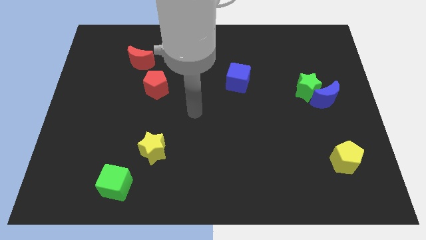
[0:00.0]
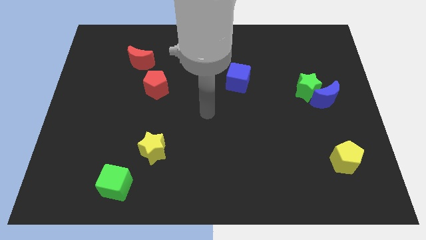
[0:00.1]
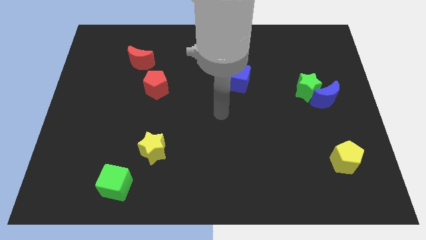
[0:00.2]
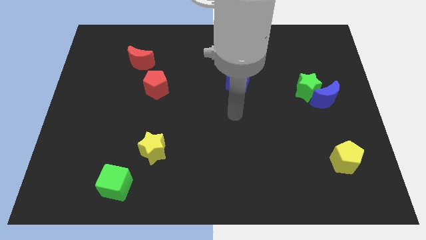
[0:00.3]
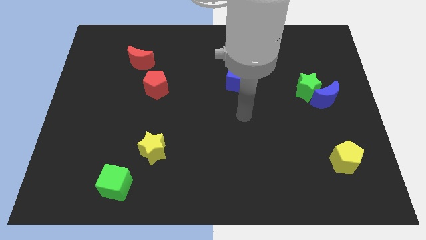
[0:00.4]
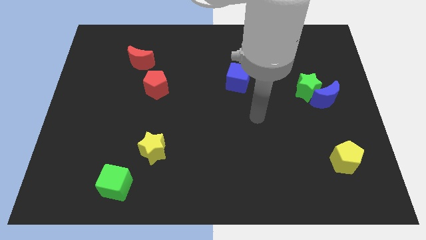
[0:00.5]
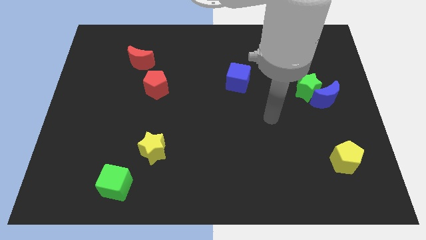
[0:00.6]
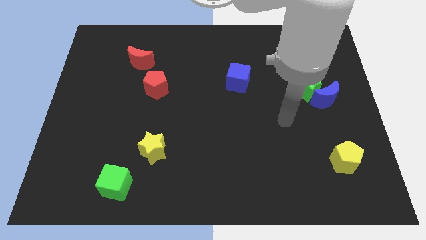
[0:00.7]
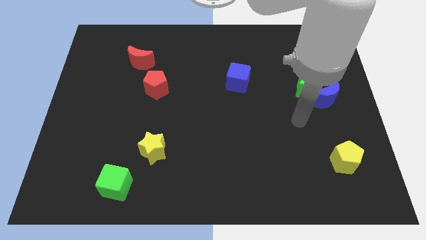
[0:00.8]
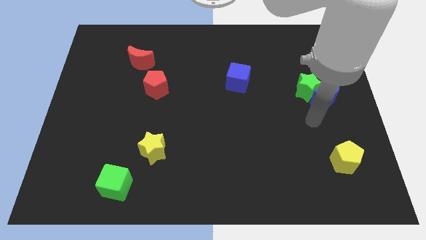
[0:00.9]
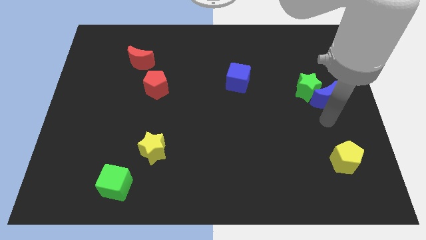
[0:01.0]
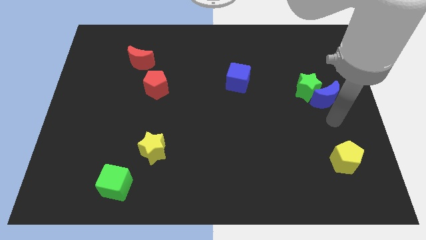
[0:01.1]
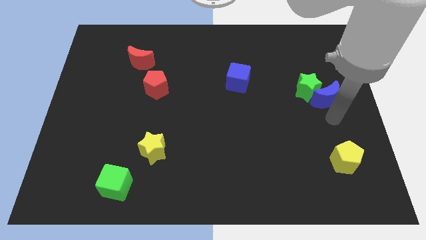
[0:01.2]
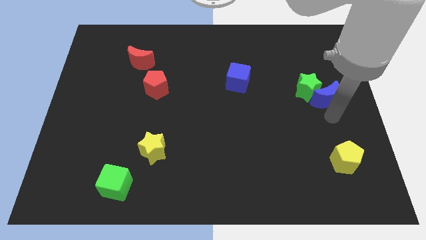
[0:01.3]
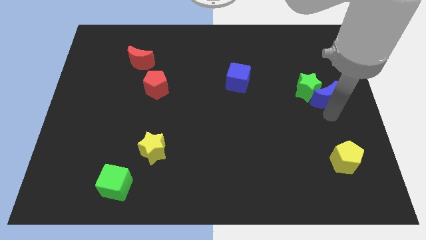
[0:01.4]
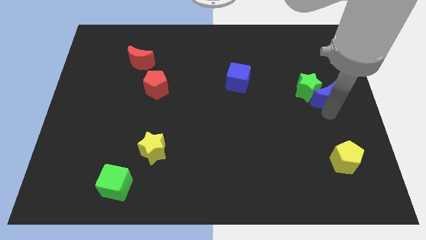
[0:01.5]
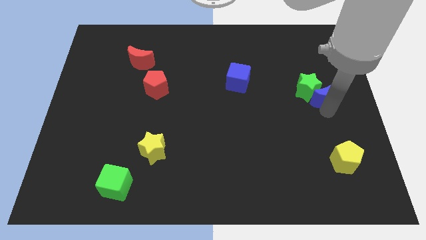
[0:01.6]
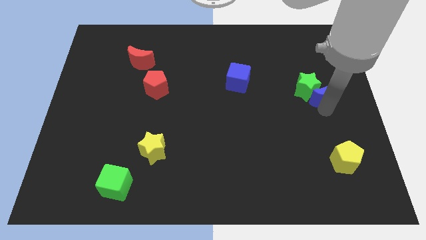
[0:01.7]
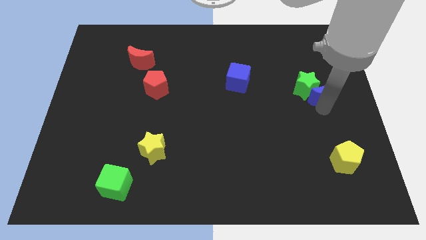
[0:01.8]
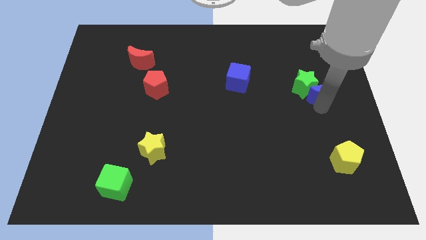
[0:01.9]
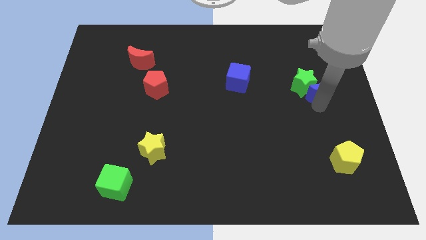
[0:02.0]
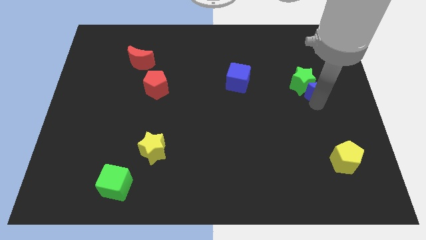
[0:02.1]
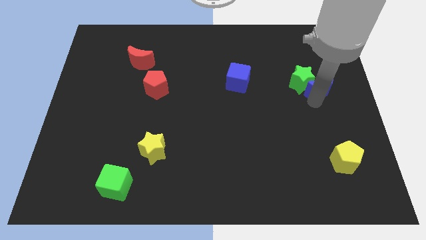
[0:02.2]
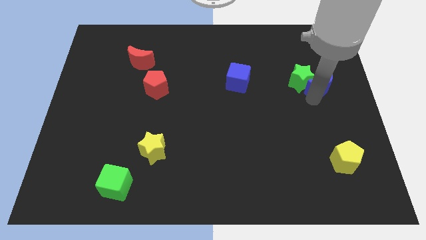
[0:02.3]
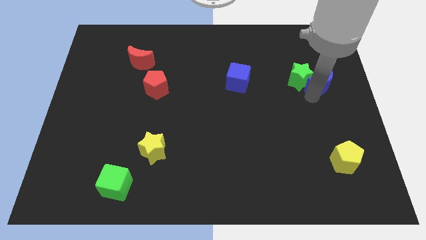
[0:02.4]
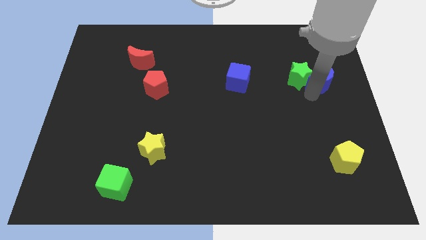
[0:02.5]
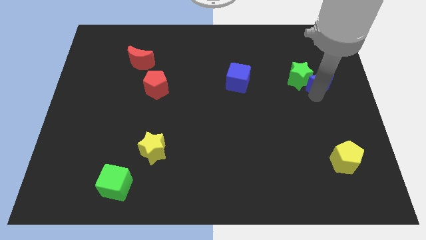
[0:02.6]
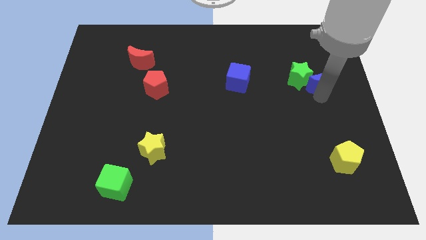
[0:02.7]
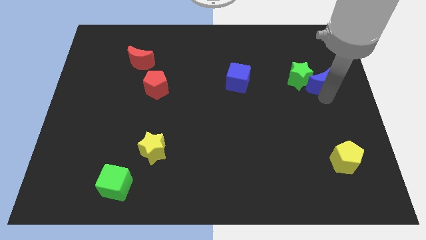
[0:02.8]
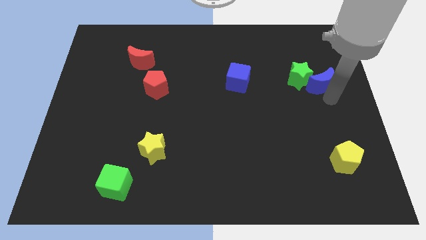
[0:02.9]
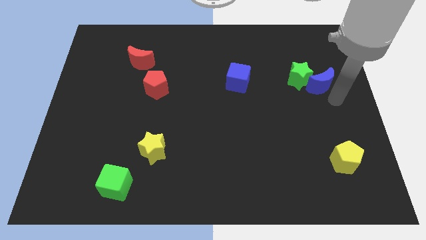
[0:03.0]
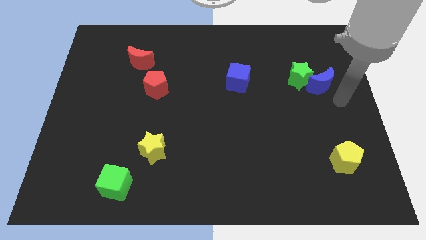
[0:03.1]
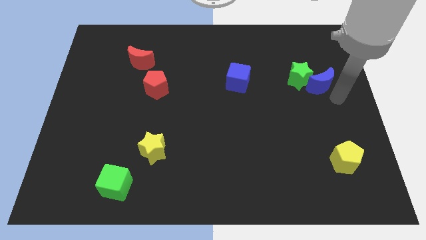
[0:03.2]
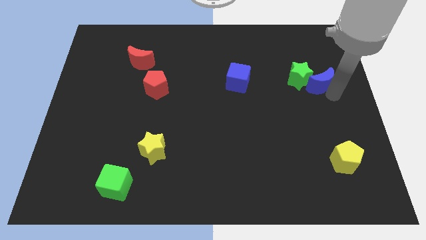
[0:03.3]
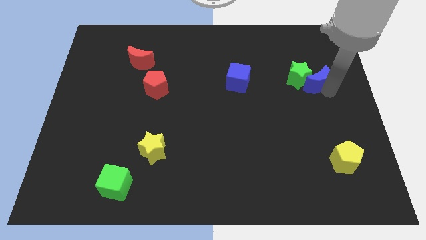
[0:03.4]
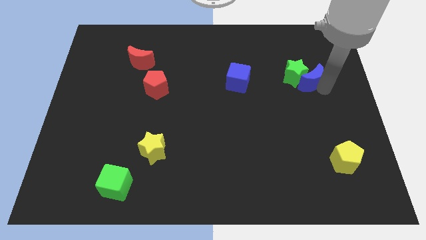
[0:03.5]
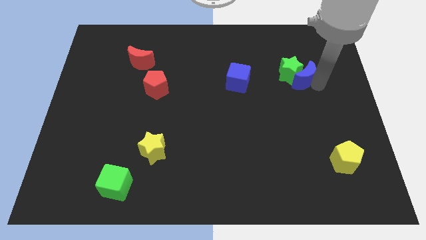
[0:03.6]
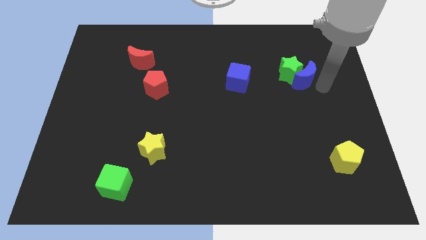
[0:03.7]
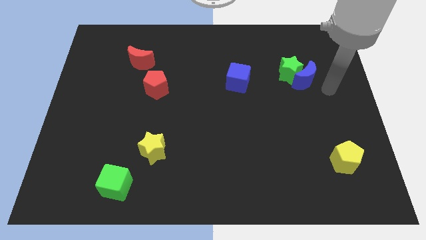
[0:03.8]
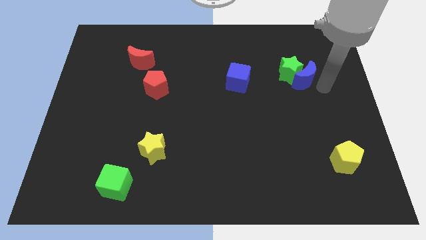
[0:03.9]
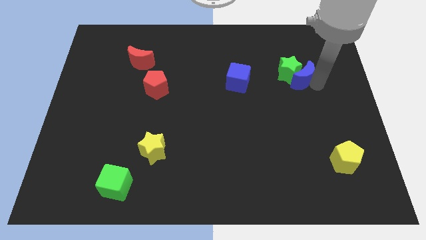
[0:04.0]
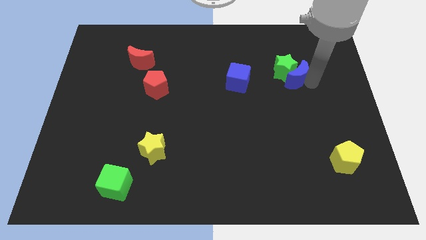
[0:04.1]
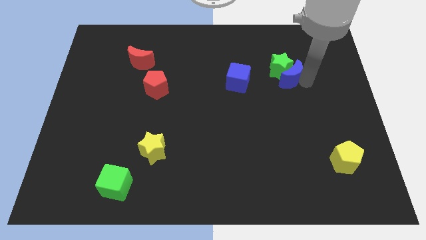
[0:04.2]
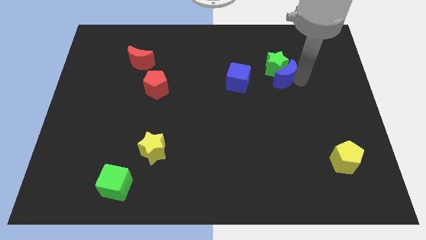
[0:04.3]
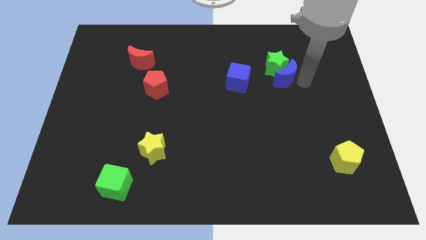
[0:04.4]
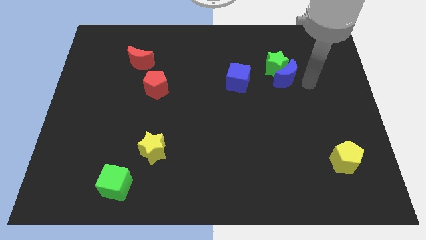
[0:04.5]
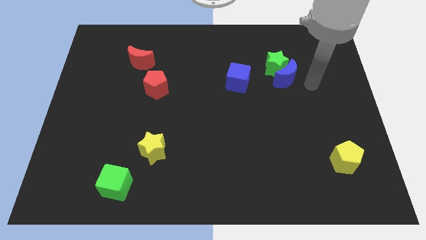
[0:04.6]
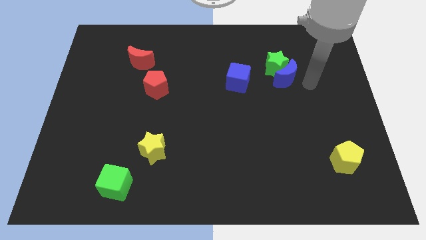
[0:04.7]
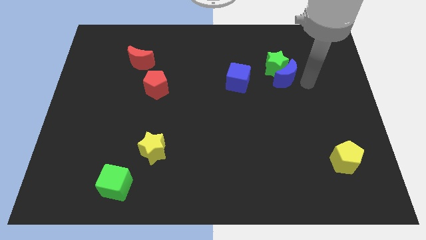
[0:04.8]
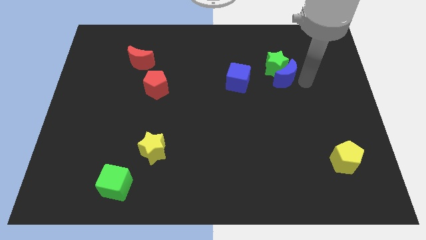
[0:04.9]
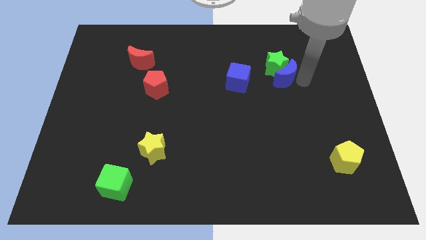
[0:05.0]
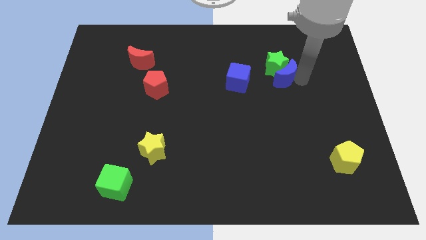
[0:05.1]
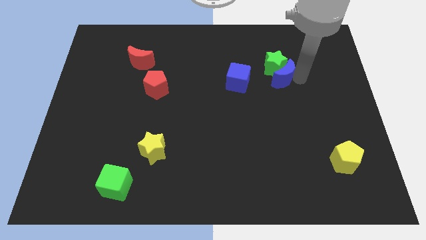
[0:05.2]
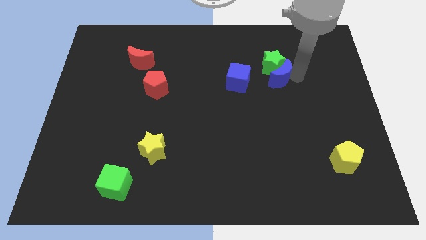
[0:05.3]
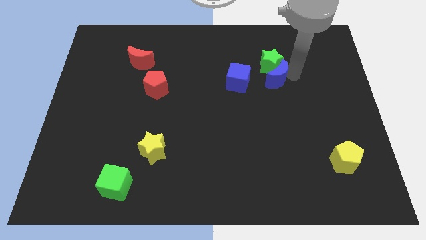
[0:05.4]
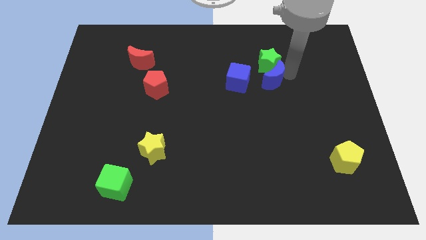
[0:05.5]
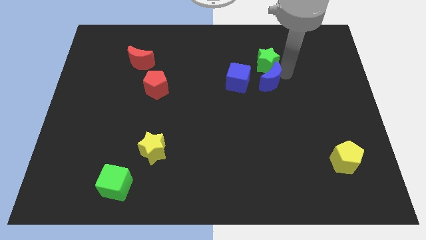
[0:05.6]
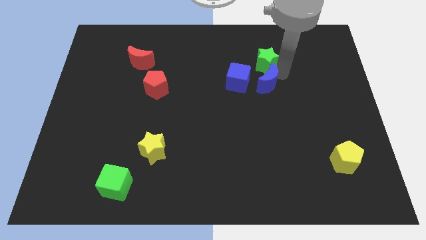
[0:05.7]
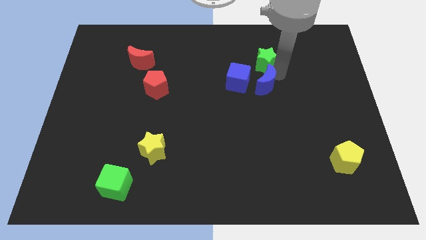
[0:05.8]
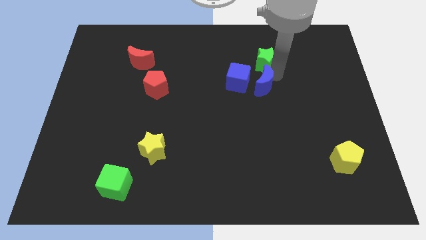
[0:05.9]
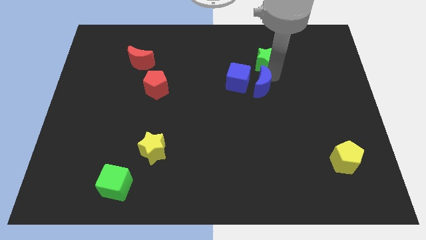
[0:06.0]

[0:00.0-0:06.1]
push the blue moon close to the blue cube

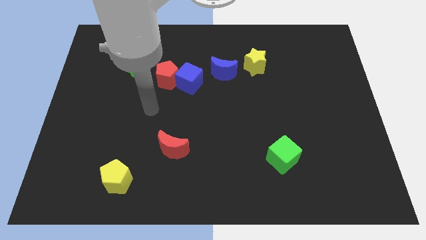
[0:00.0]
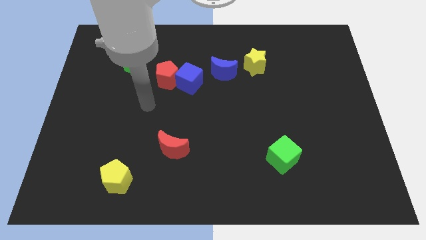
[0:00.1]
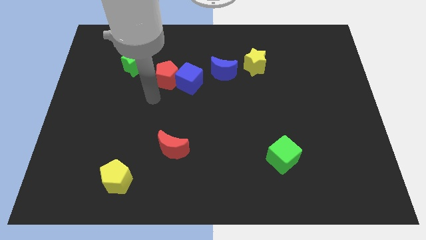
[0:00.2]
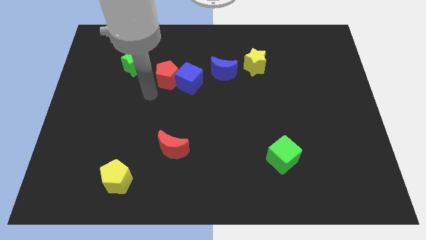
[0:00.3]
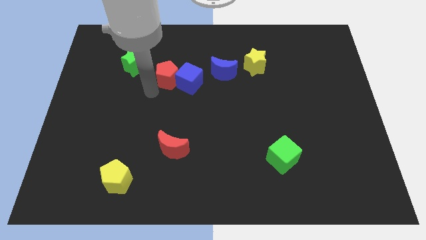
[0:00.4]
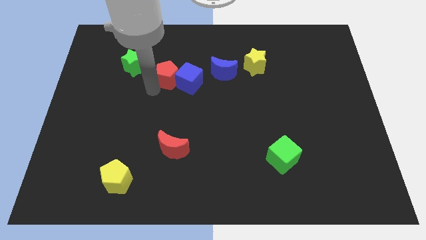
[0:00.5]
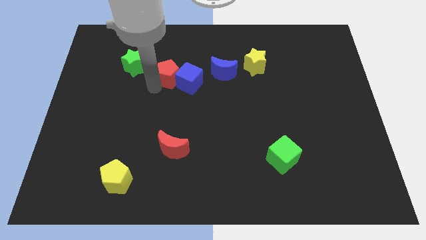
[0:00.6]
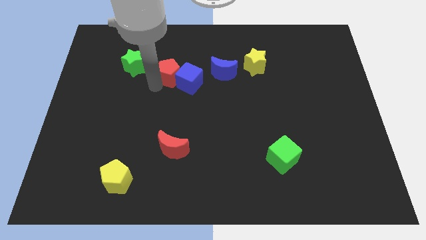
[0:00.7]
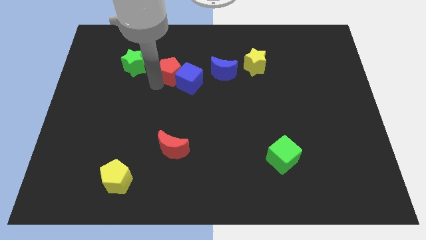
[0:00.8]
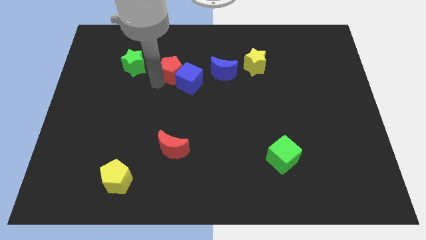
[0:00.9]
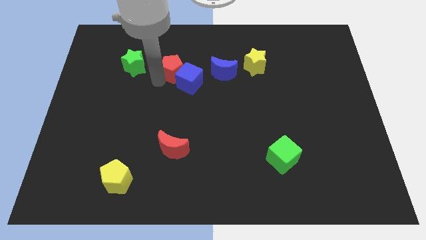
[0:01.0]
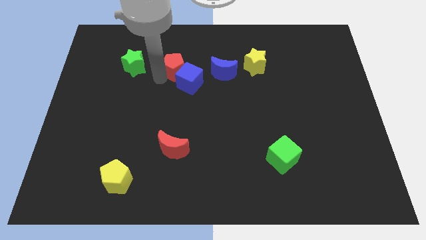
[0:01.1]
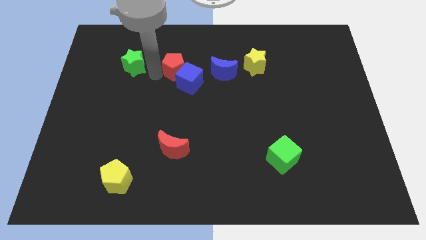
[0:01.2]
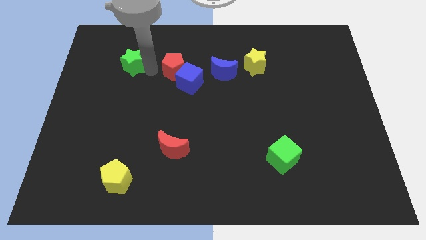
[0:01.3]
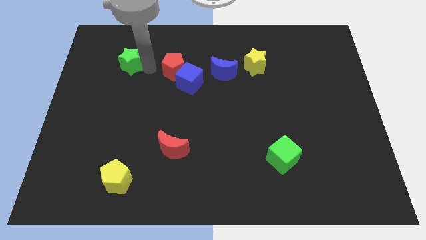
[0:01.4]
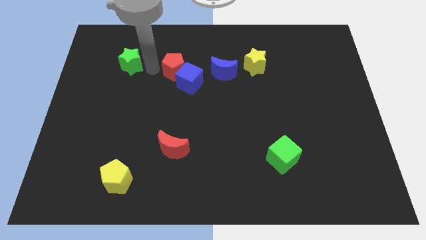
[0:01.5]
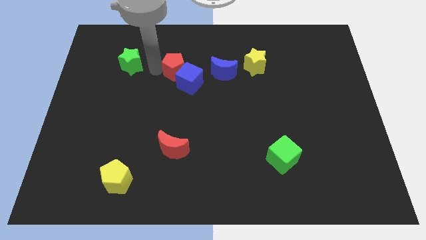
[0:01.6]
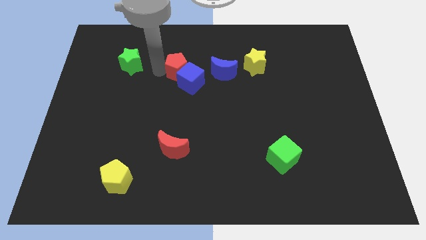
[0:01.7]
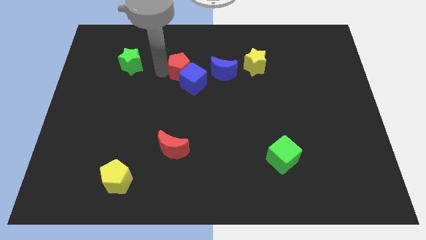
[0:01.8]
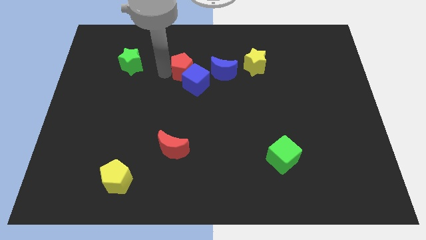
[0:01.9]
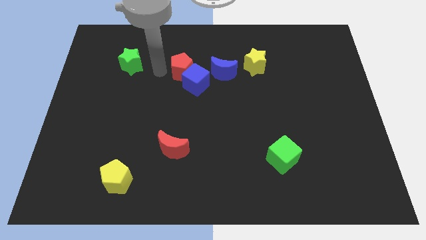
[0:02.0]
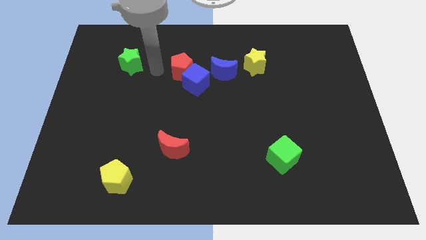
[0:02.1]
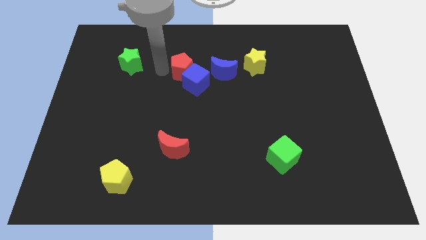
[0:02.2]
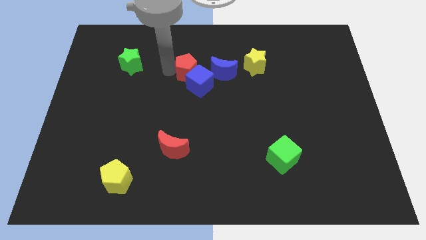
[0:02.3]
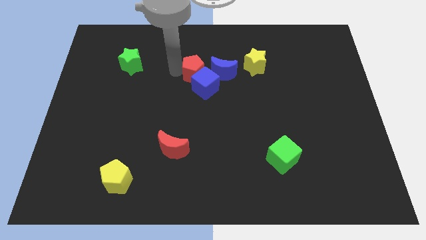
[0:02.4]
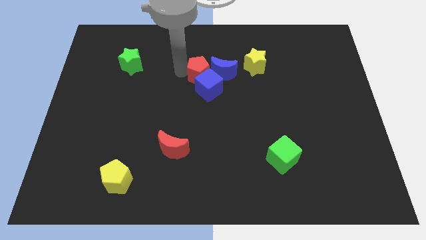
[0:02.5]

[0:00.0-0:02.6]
put the red pentagon close to the blue moon
